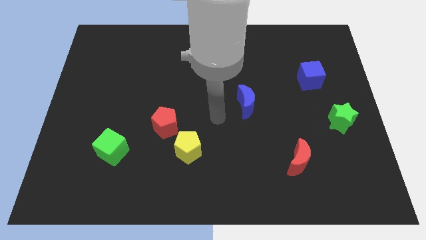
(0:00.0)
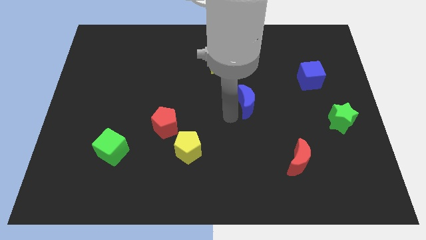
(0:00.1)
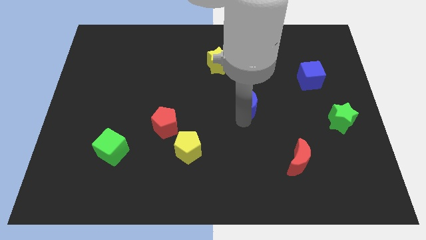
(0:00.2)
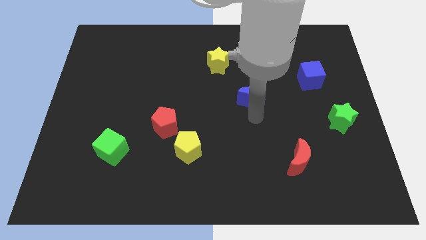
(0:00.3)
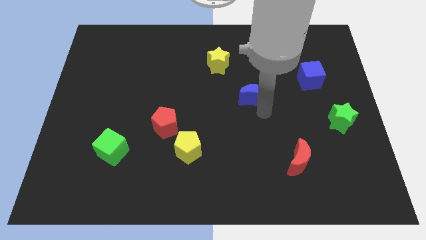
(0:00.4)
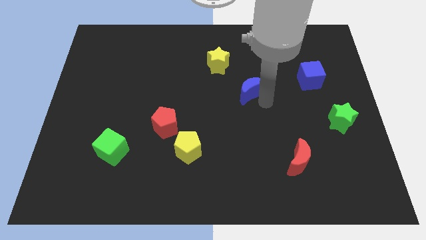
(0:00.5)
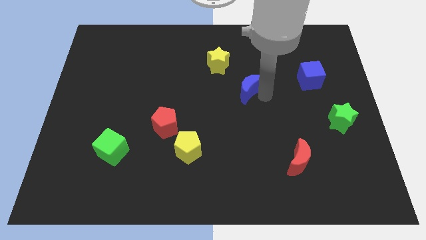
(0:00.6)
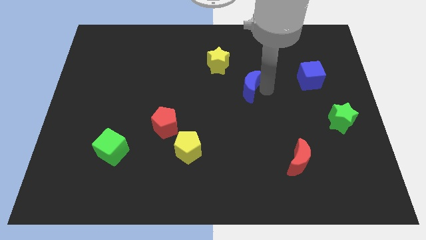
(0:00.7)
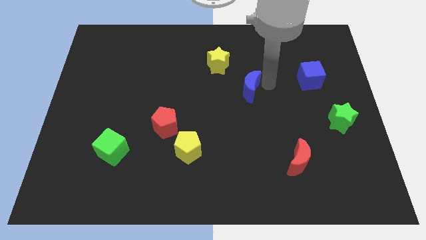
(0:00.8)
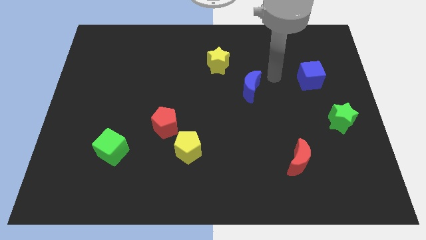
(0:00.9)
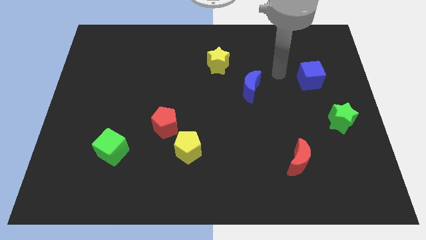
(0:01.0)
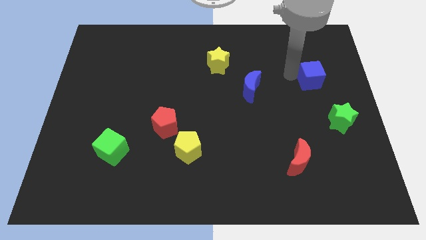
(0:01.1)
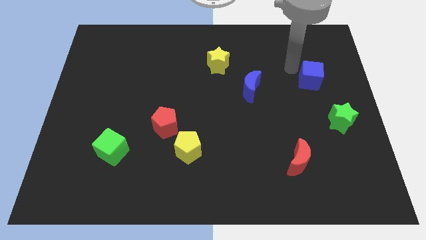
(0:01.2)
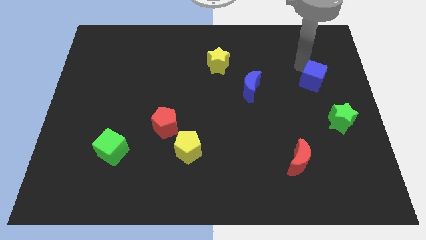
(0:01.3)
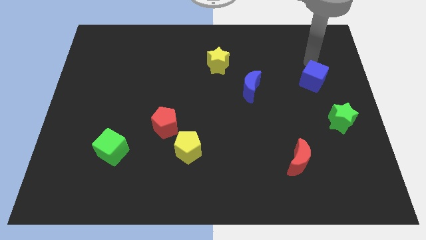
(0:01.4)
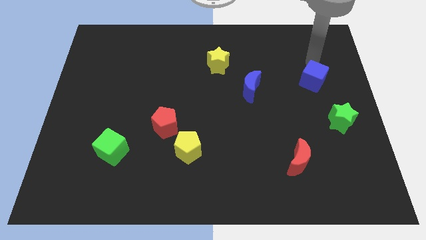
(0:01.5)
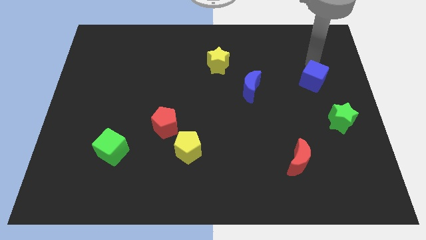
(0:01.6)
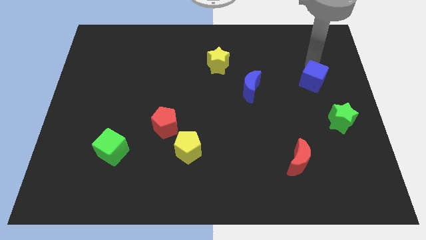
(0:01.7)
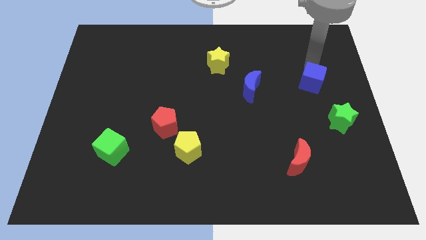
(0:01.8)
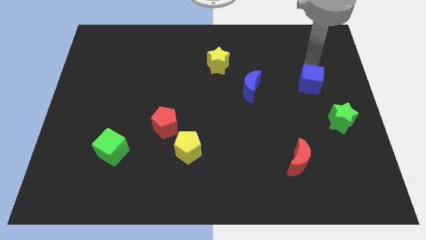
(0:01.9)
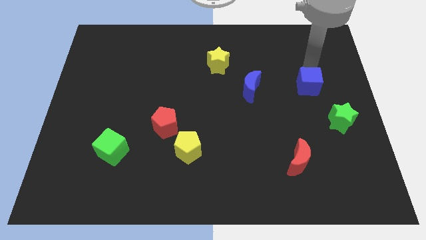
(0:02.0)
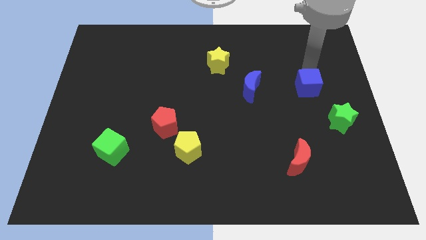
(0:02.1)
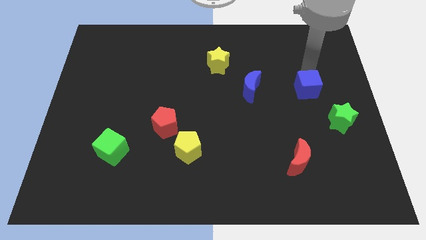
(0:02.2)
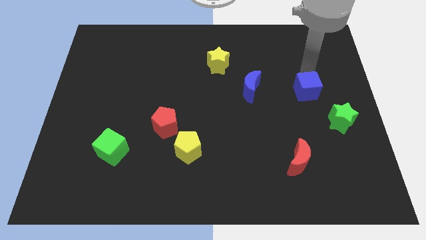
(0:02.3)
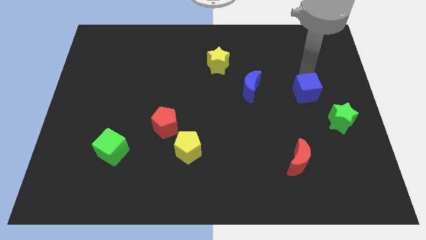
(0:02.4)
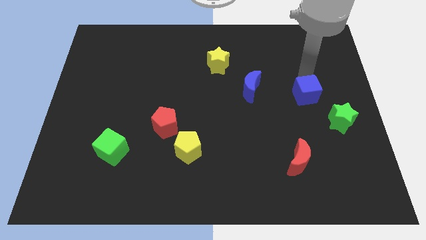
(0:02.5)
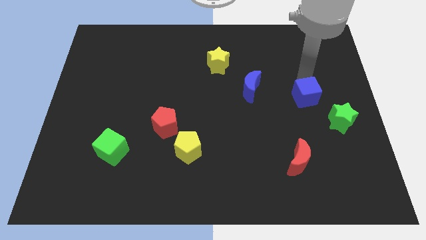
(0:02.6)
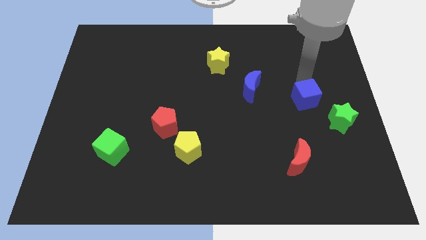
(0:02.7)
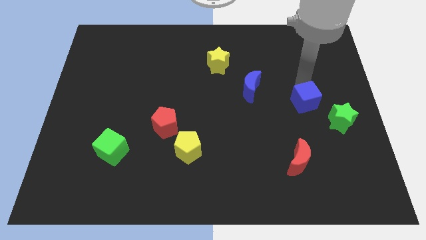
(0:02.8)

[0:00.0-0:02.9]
slide the blue cube down a little bit

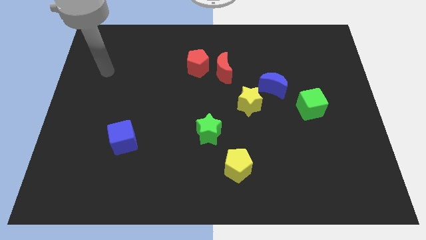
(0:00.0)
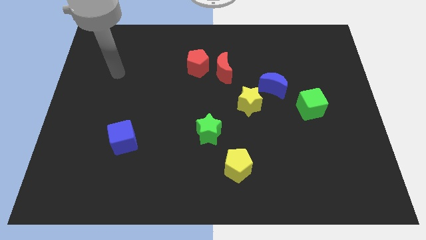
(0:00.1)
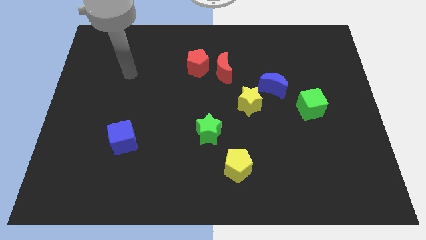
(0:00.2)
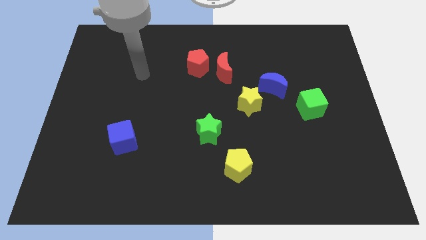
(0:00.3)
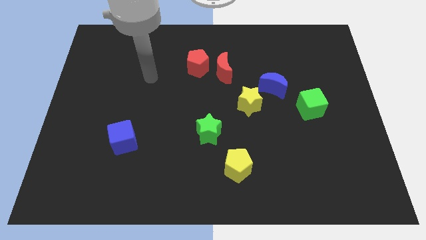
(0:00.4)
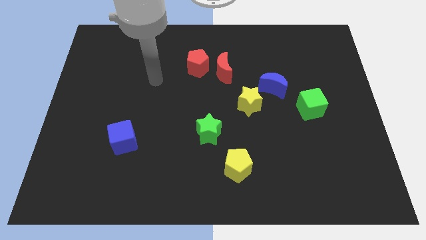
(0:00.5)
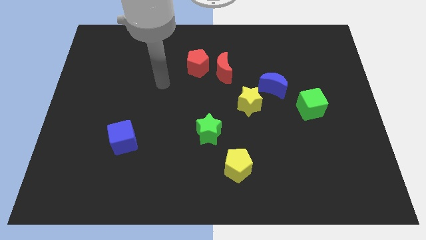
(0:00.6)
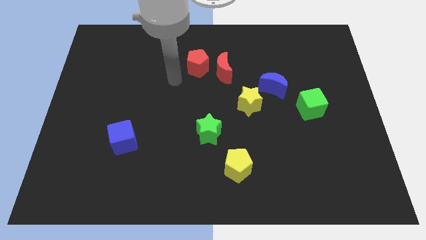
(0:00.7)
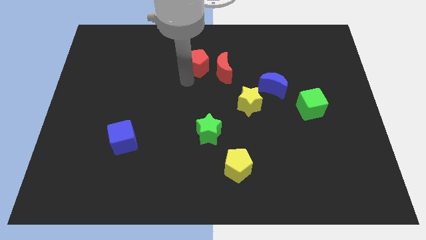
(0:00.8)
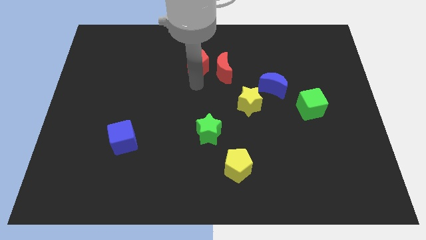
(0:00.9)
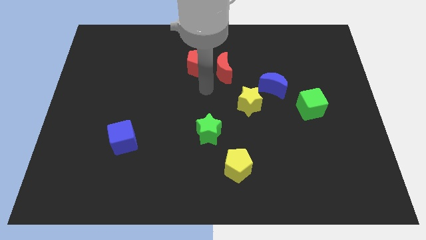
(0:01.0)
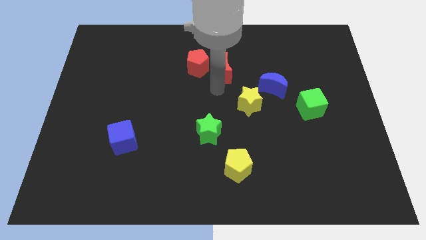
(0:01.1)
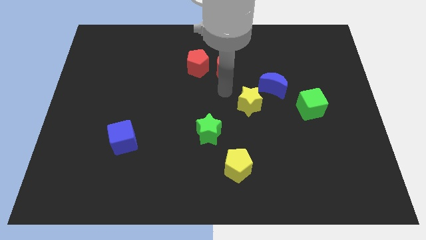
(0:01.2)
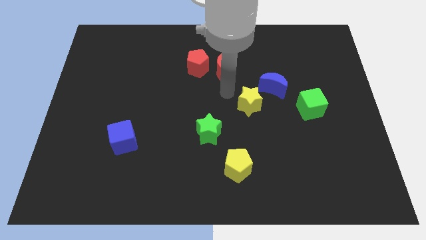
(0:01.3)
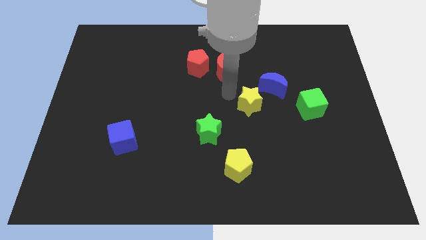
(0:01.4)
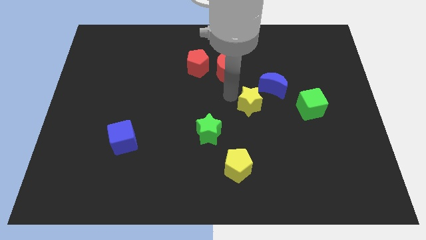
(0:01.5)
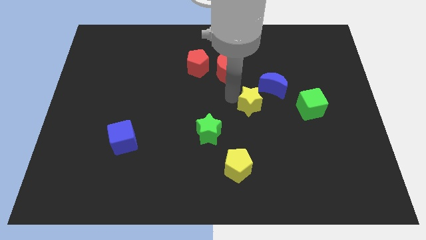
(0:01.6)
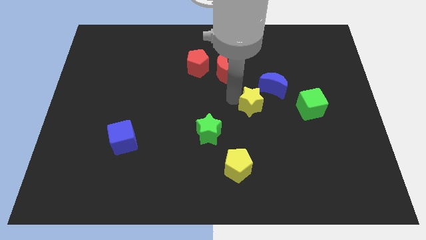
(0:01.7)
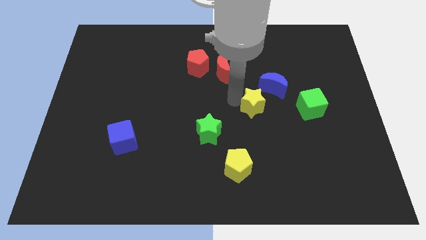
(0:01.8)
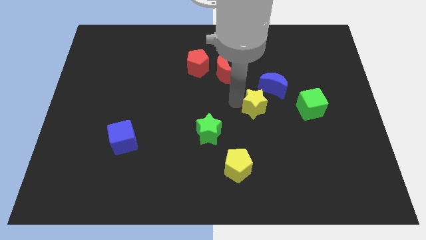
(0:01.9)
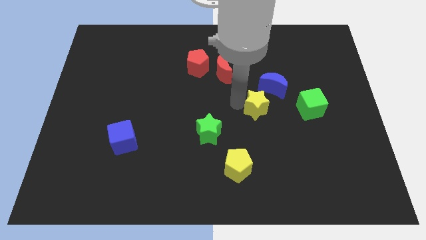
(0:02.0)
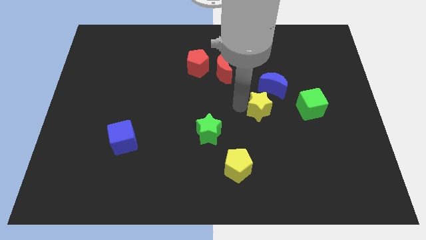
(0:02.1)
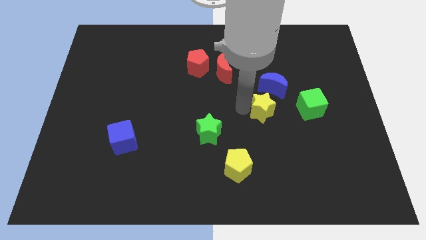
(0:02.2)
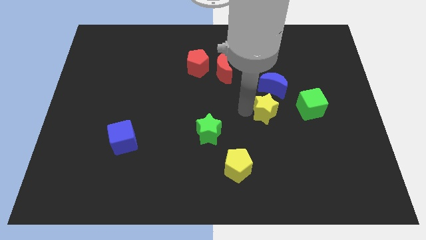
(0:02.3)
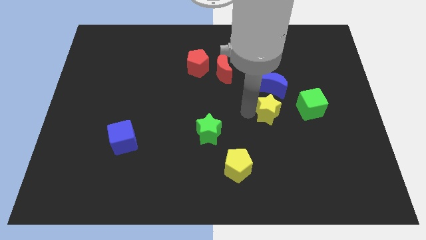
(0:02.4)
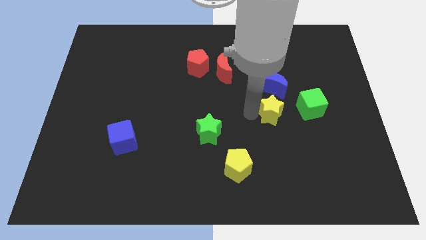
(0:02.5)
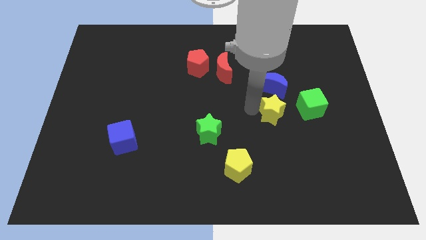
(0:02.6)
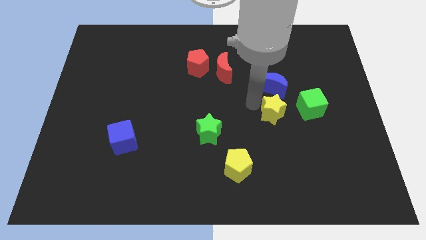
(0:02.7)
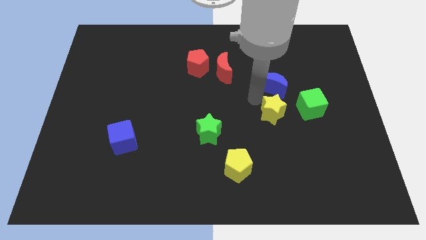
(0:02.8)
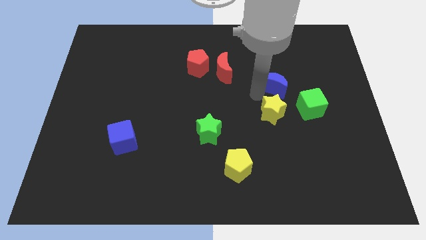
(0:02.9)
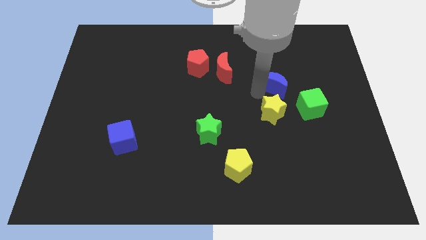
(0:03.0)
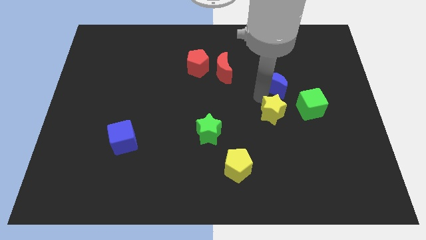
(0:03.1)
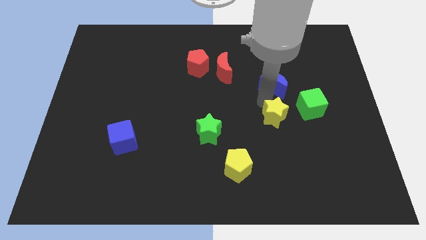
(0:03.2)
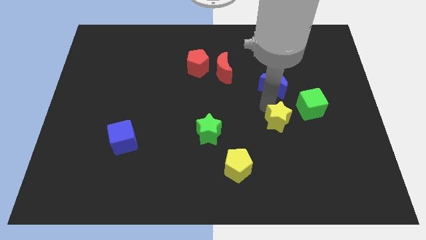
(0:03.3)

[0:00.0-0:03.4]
slide the yellow star a little bit diagonally down and to the right

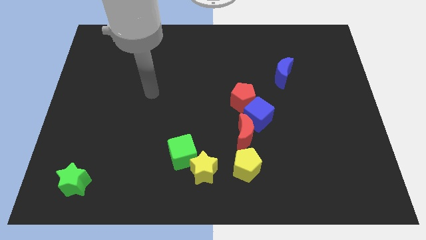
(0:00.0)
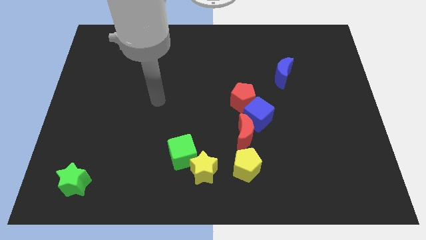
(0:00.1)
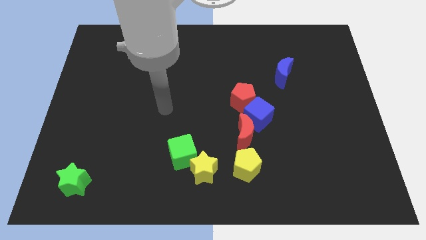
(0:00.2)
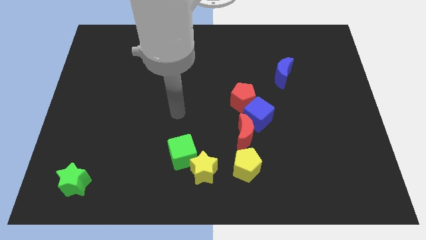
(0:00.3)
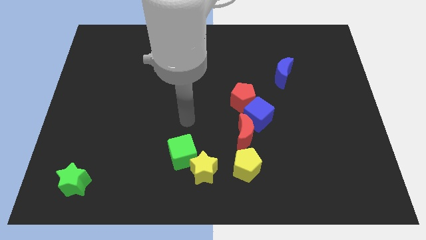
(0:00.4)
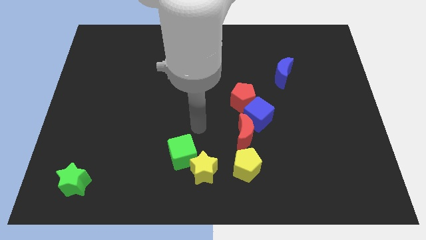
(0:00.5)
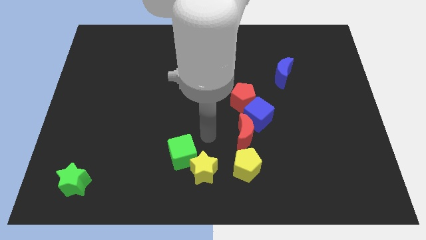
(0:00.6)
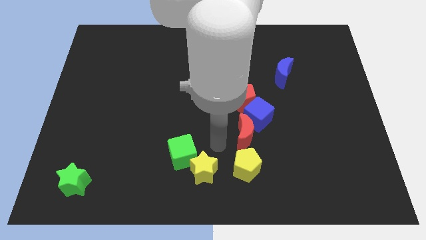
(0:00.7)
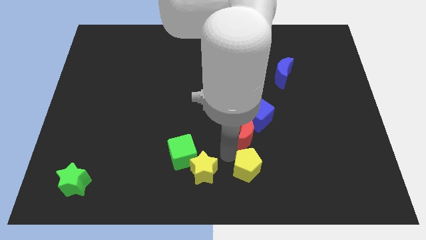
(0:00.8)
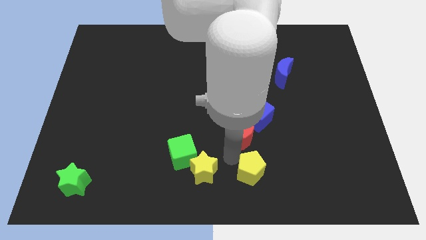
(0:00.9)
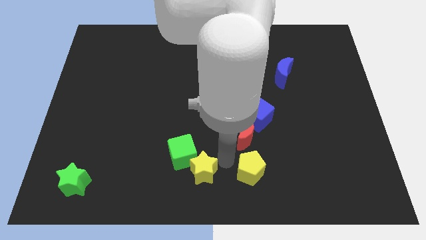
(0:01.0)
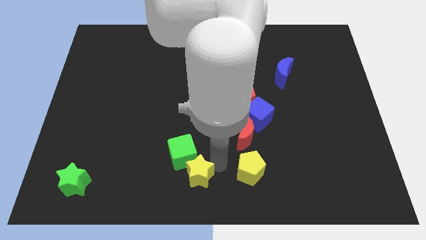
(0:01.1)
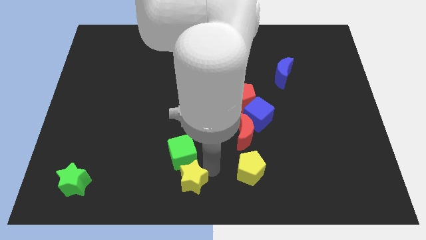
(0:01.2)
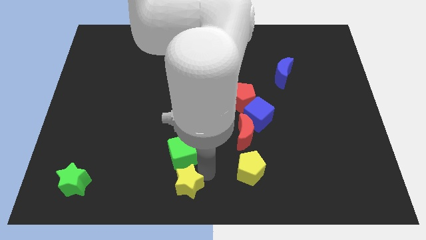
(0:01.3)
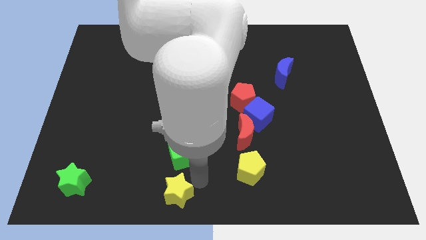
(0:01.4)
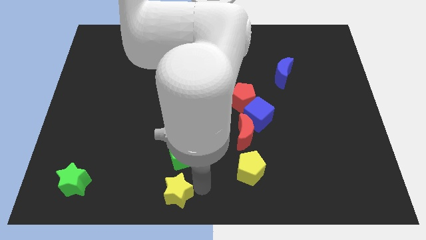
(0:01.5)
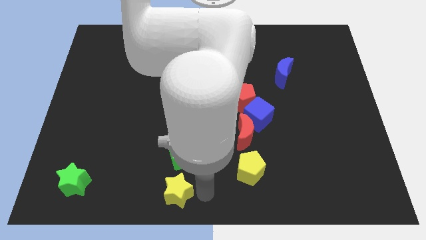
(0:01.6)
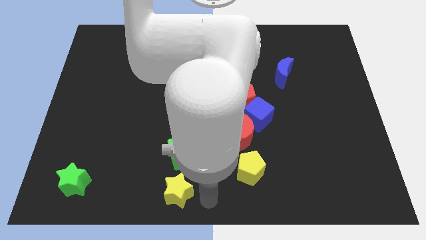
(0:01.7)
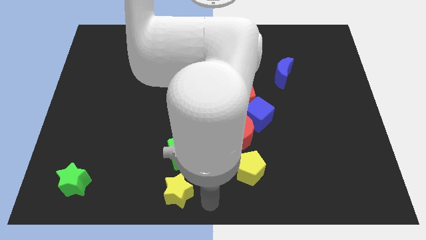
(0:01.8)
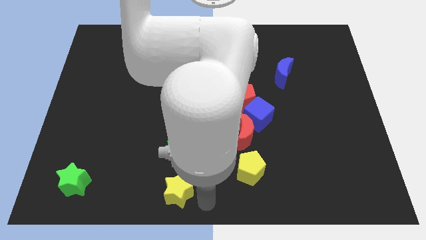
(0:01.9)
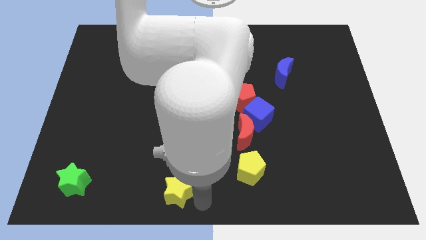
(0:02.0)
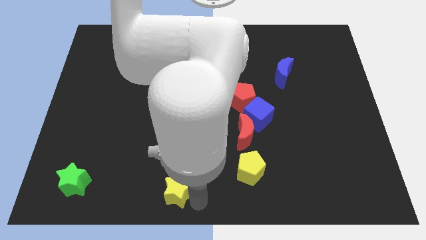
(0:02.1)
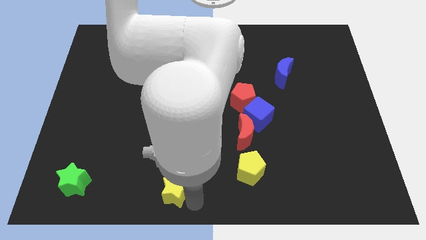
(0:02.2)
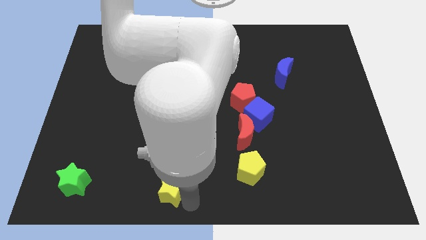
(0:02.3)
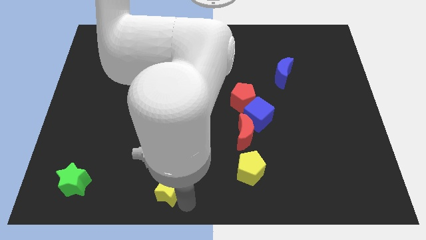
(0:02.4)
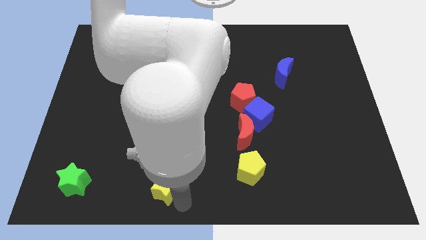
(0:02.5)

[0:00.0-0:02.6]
push the yellow star left a little
